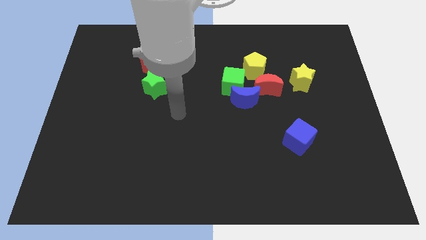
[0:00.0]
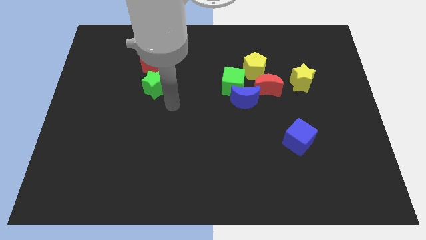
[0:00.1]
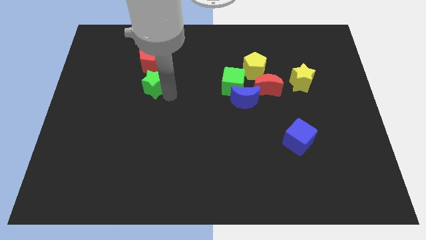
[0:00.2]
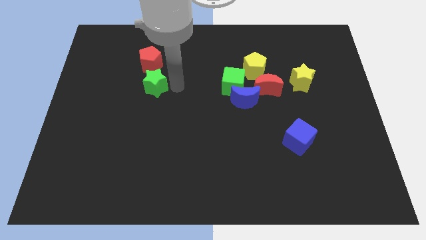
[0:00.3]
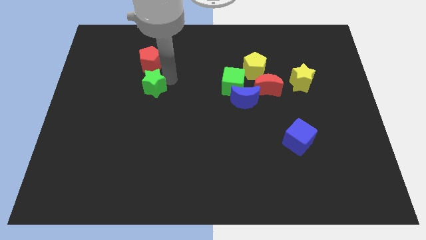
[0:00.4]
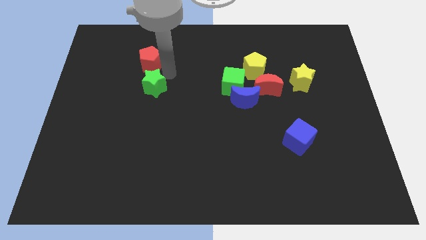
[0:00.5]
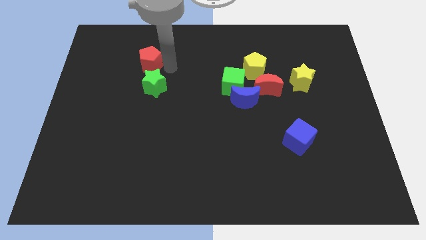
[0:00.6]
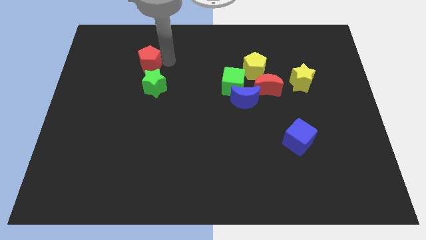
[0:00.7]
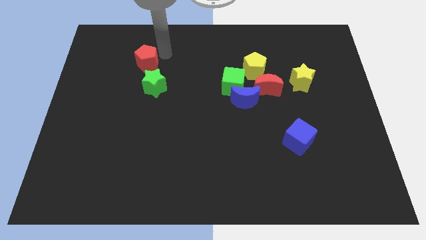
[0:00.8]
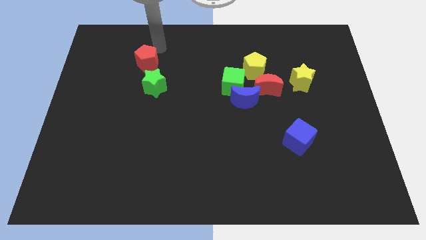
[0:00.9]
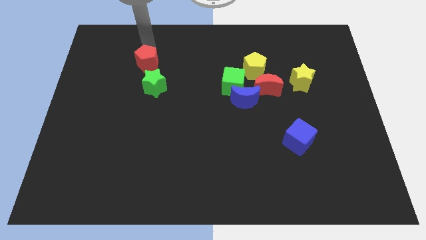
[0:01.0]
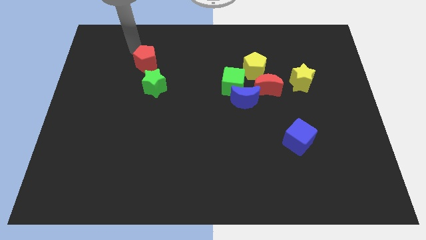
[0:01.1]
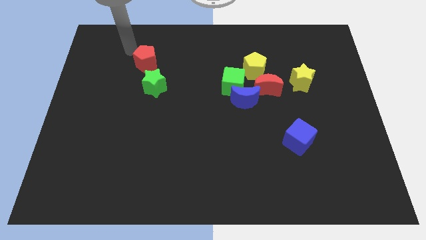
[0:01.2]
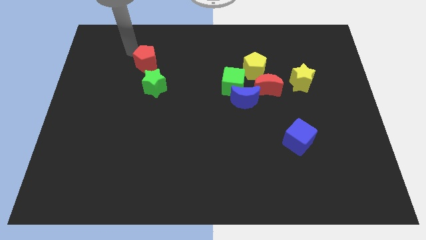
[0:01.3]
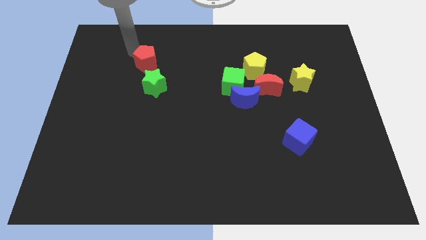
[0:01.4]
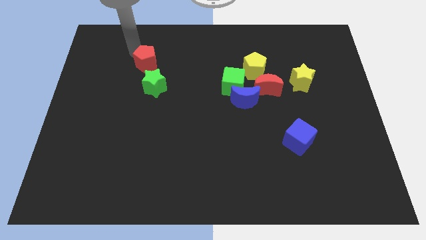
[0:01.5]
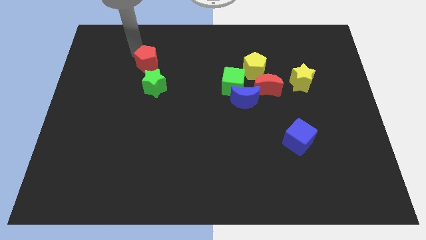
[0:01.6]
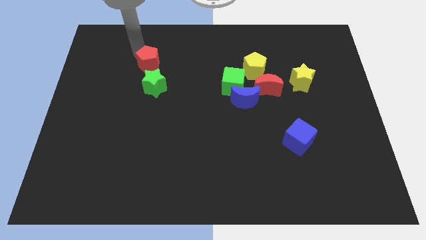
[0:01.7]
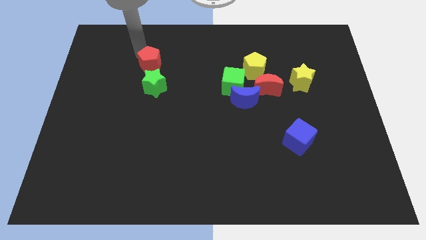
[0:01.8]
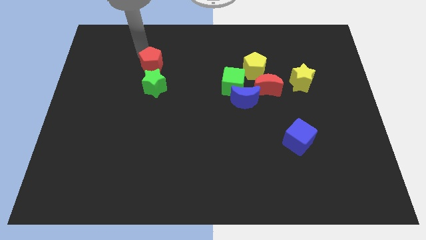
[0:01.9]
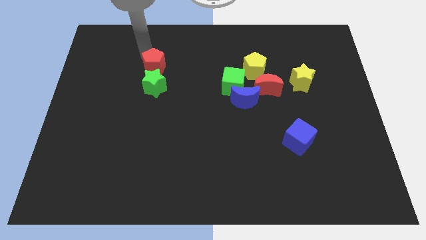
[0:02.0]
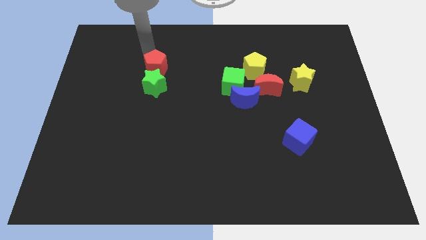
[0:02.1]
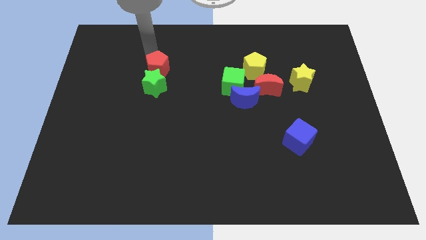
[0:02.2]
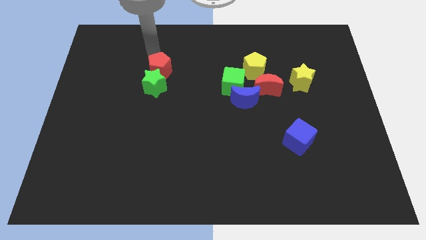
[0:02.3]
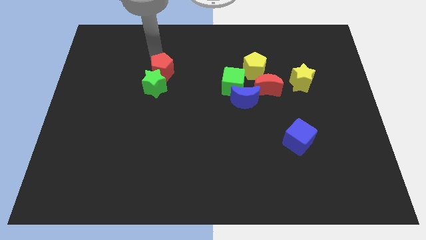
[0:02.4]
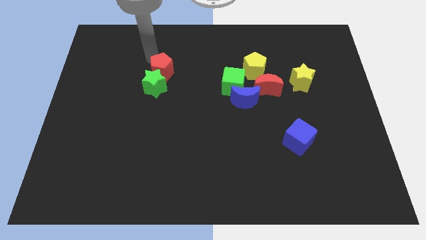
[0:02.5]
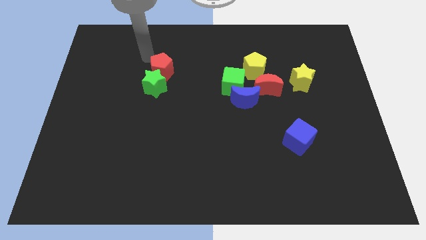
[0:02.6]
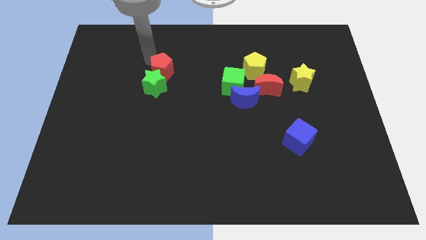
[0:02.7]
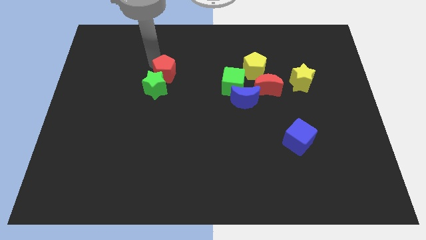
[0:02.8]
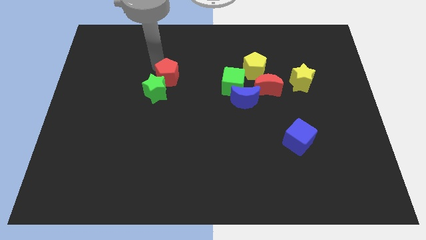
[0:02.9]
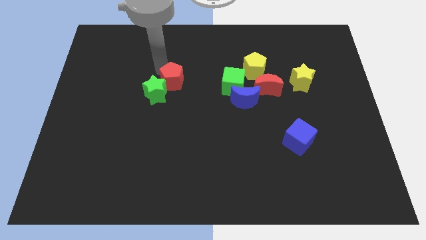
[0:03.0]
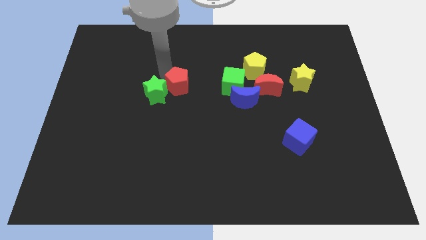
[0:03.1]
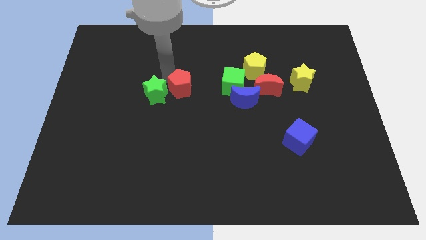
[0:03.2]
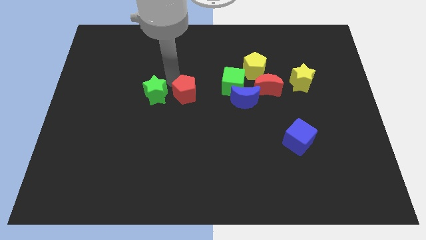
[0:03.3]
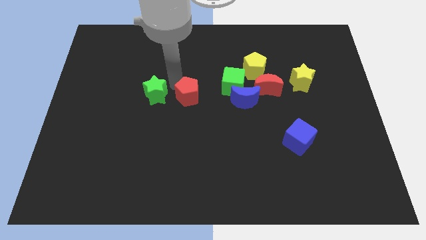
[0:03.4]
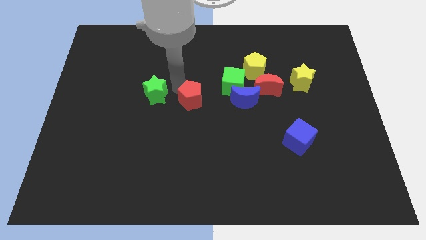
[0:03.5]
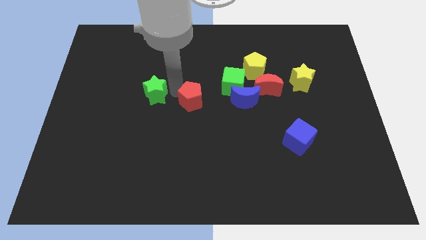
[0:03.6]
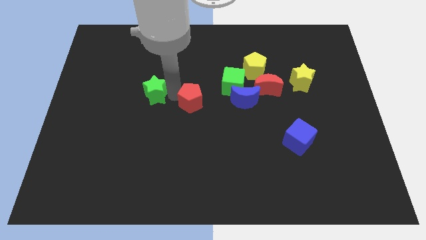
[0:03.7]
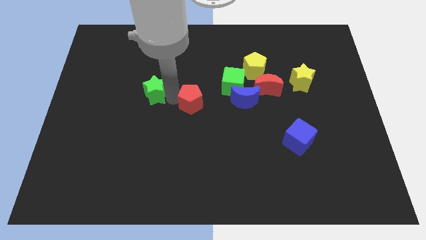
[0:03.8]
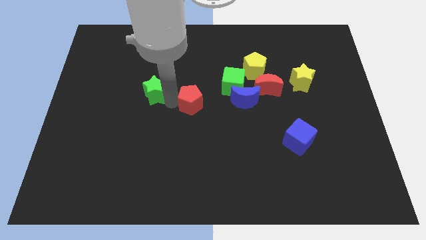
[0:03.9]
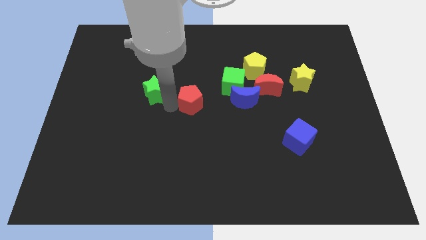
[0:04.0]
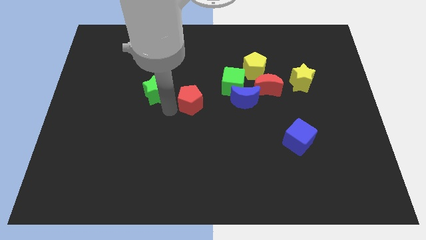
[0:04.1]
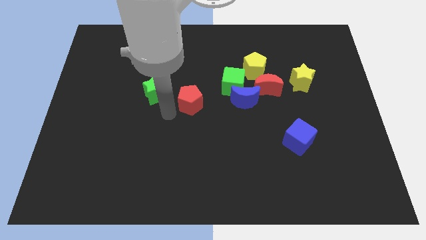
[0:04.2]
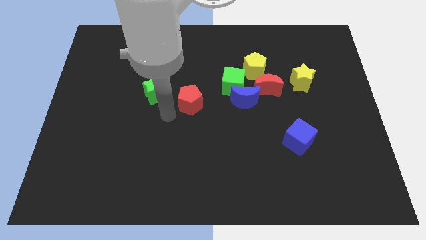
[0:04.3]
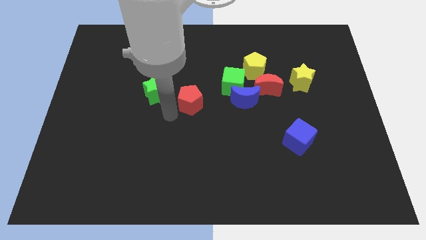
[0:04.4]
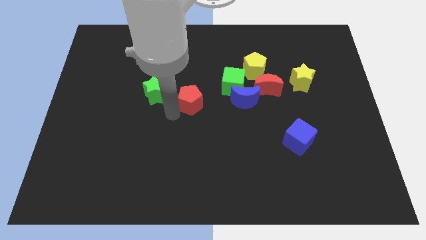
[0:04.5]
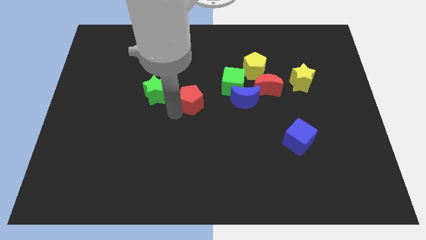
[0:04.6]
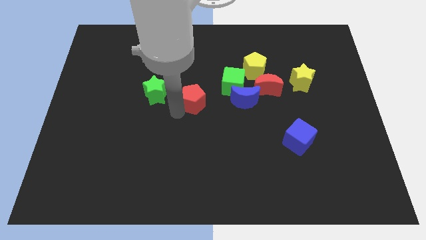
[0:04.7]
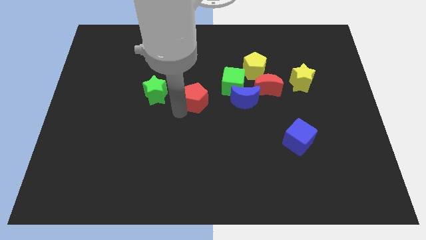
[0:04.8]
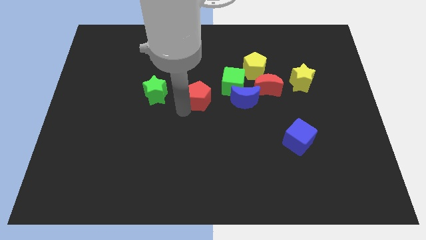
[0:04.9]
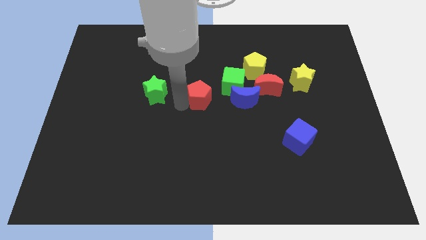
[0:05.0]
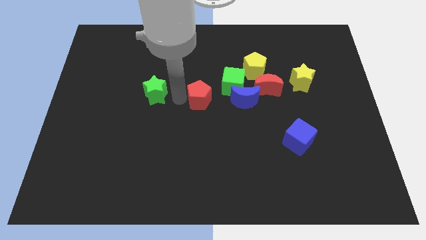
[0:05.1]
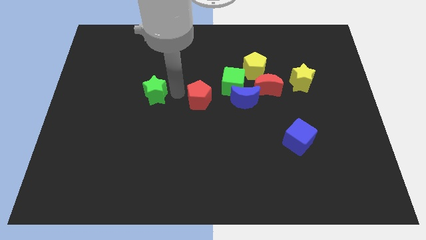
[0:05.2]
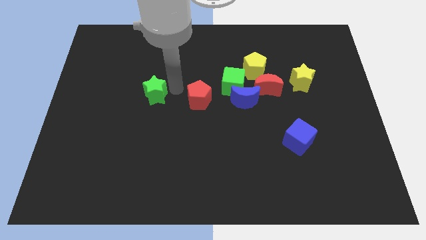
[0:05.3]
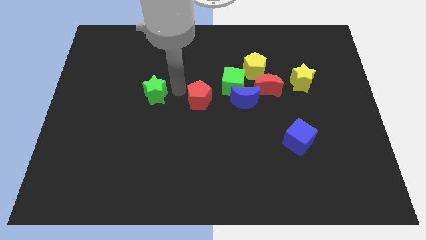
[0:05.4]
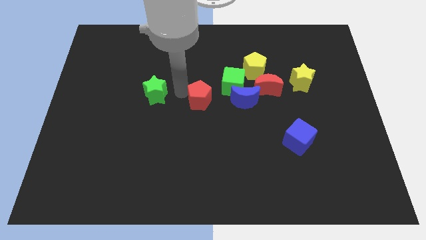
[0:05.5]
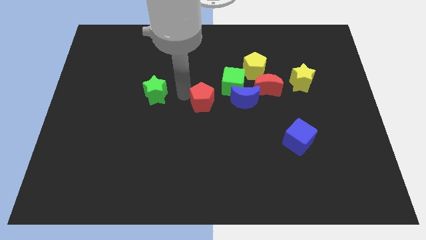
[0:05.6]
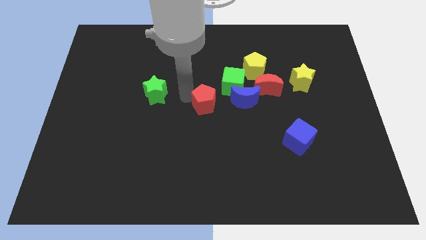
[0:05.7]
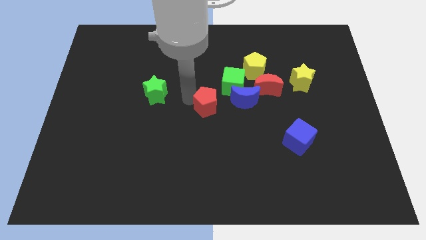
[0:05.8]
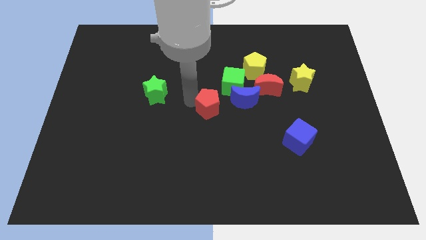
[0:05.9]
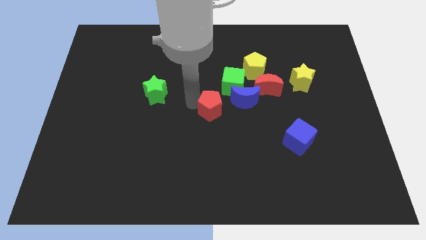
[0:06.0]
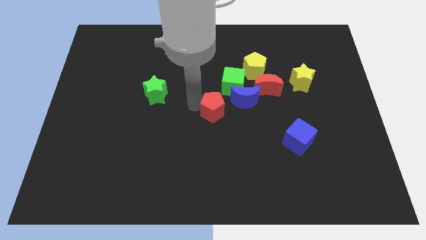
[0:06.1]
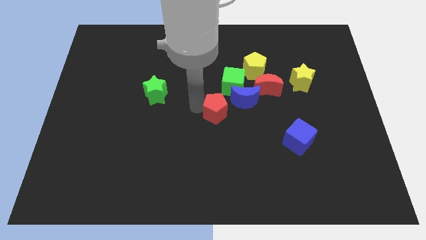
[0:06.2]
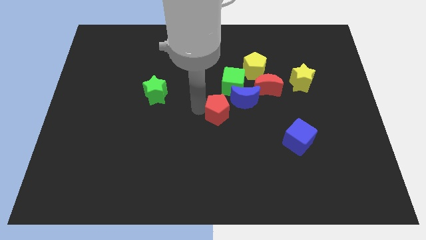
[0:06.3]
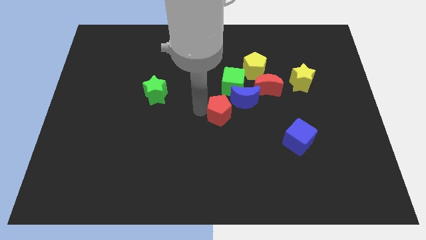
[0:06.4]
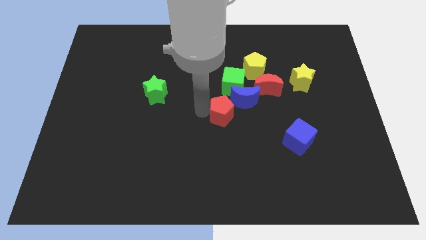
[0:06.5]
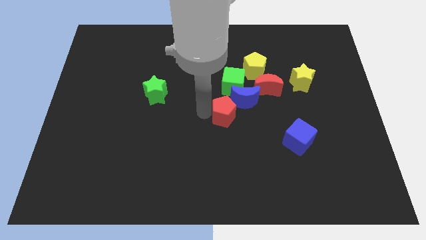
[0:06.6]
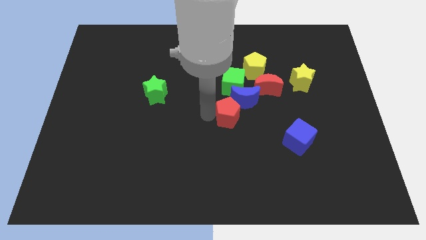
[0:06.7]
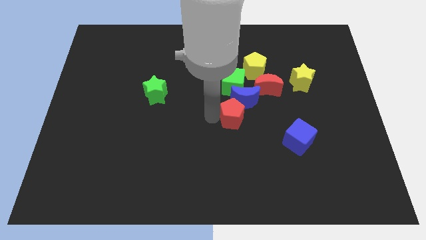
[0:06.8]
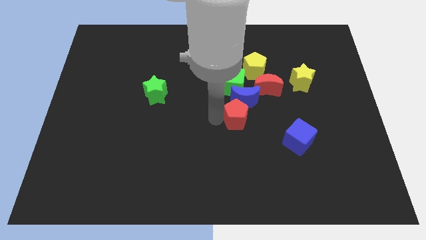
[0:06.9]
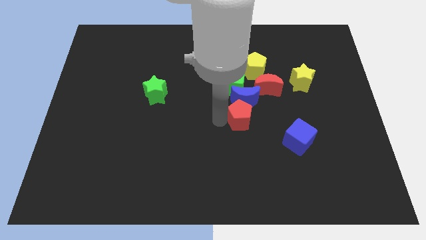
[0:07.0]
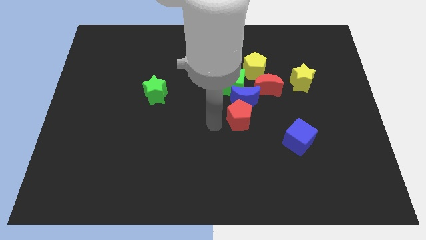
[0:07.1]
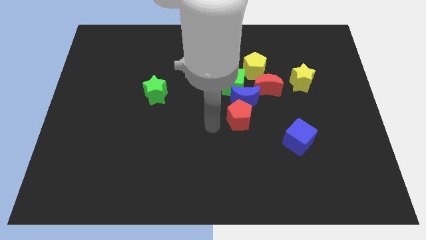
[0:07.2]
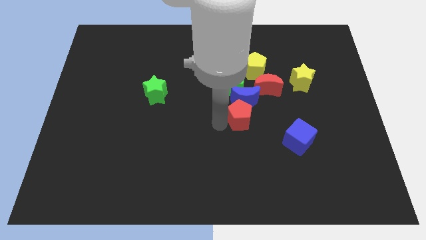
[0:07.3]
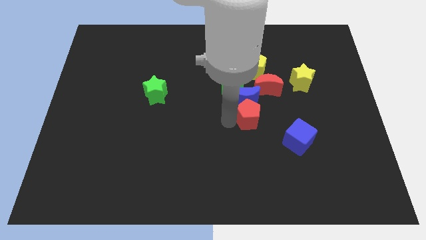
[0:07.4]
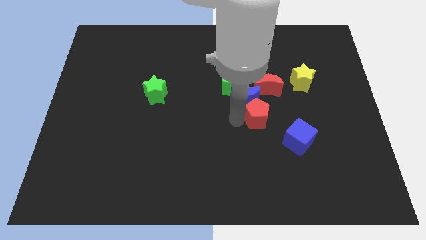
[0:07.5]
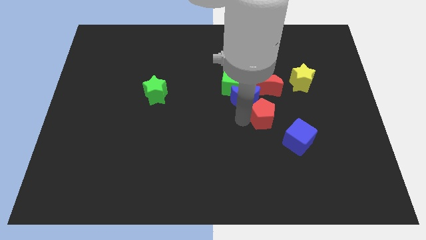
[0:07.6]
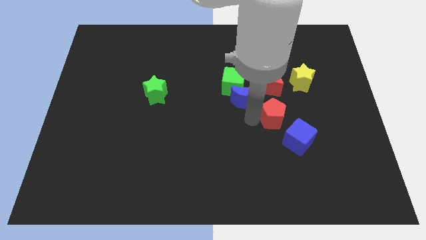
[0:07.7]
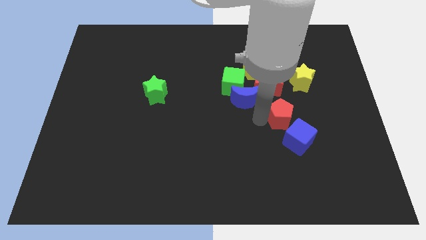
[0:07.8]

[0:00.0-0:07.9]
push the red pentagon diagonally down and to the right of the red moon
